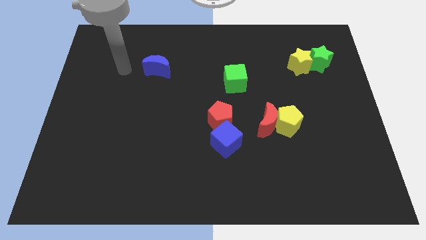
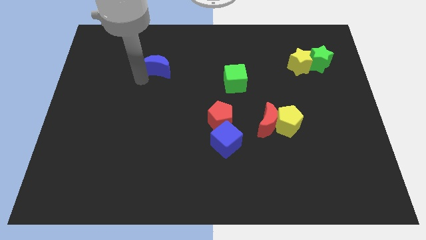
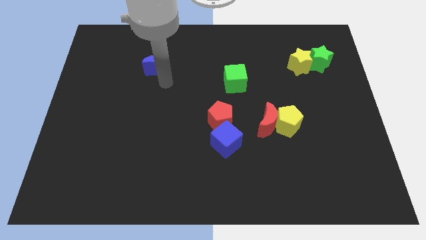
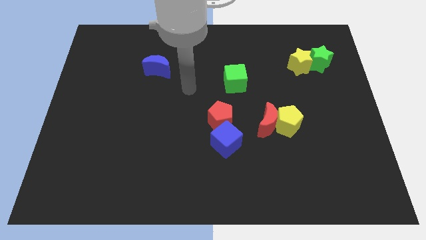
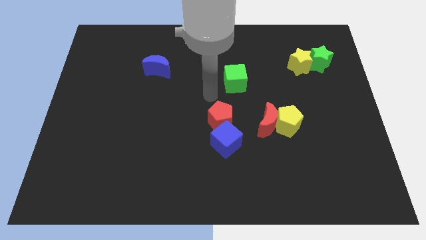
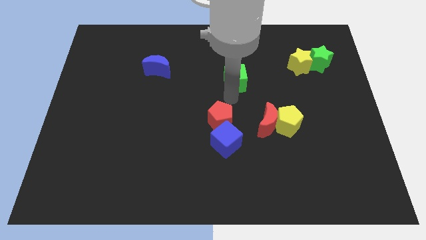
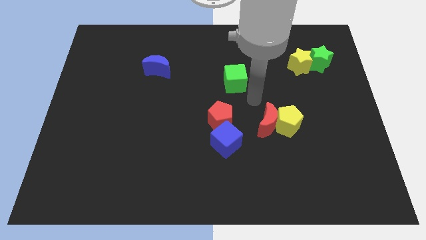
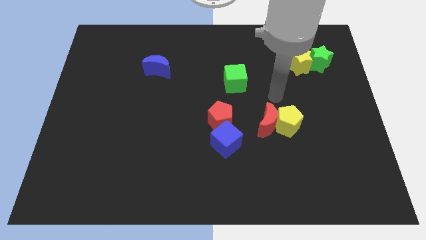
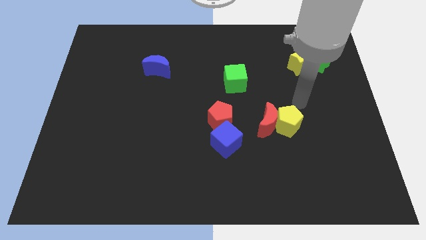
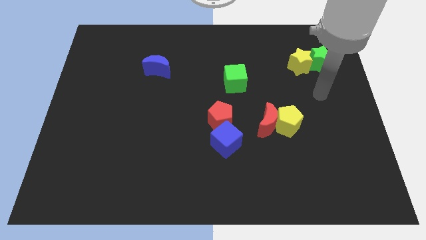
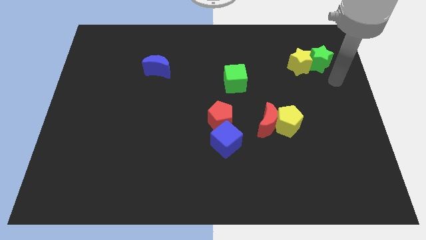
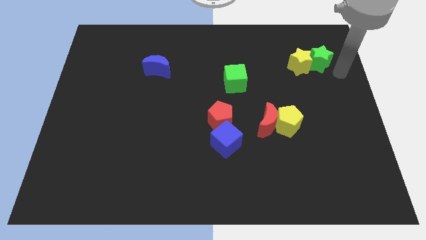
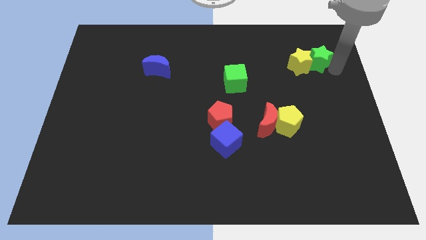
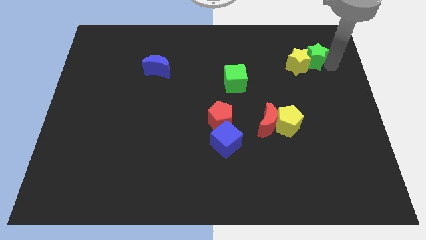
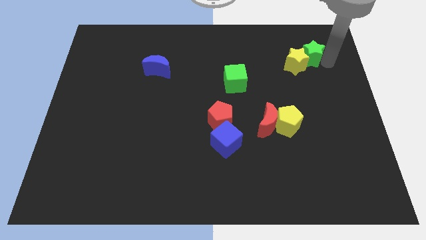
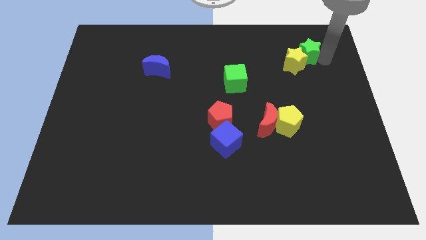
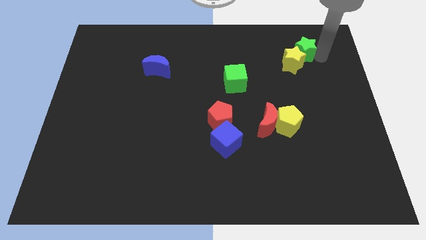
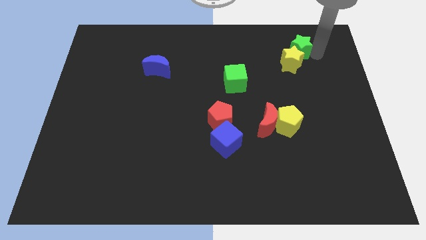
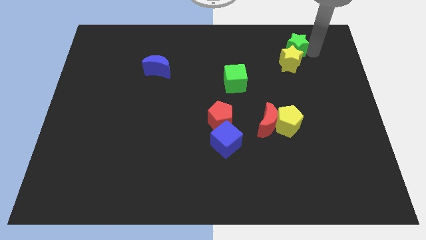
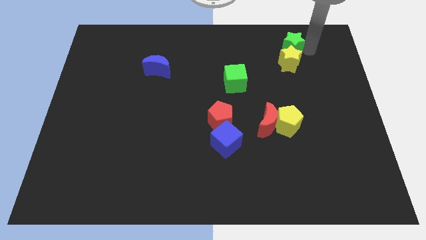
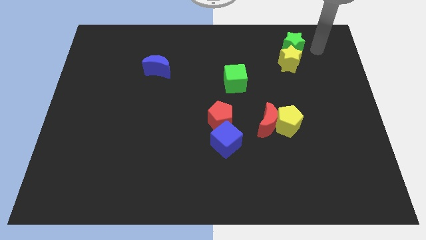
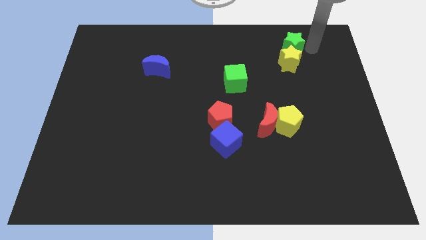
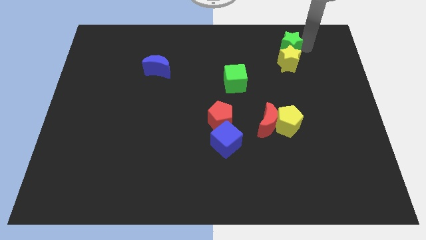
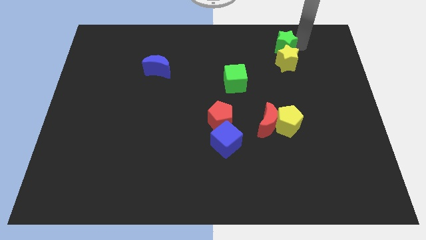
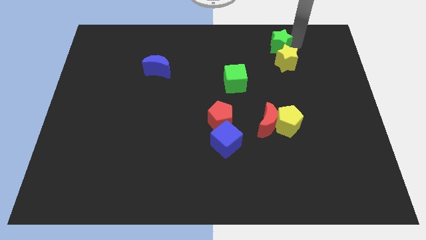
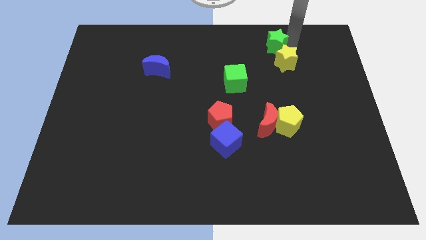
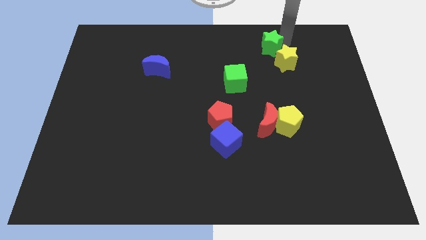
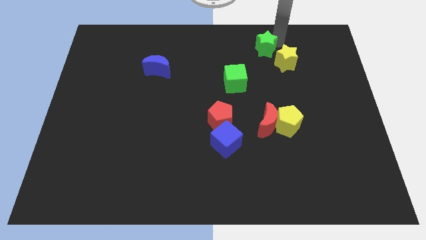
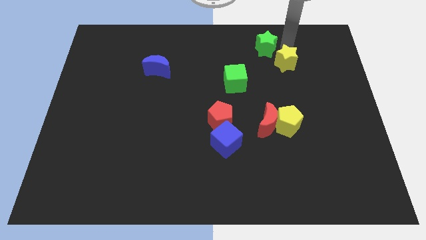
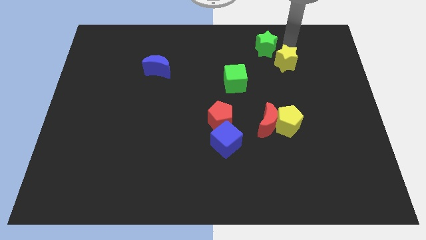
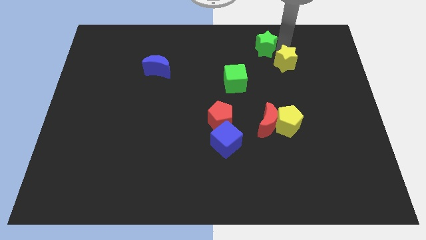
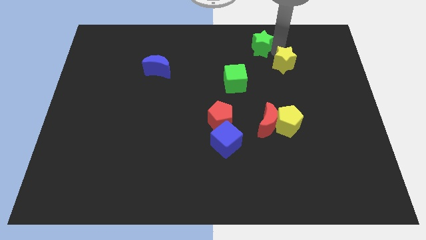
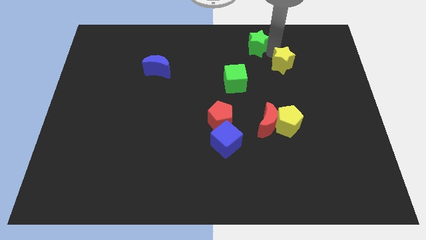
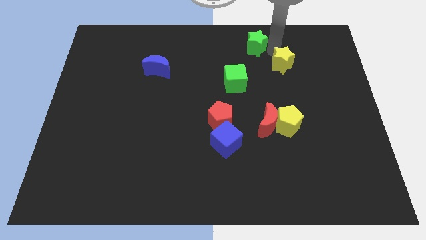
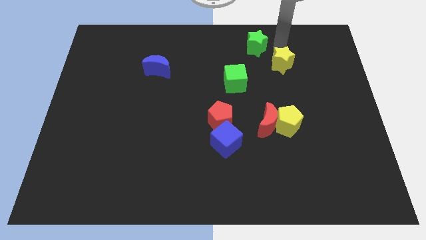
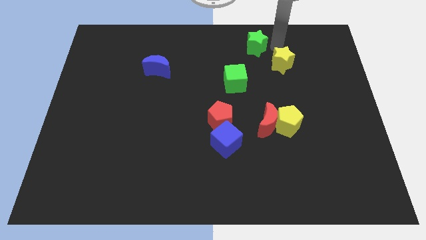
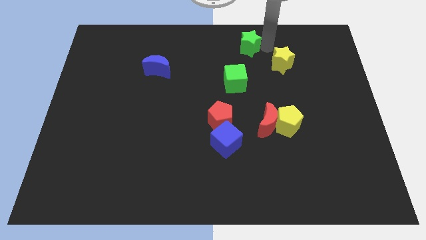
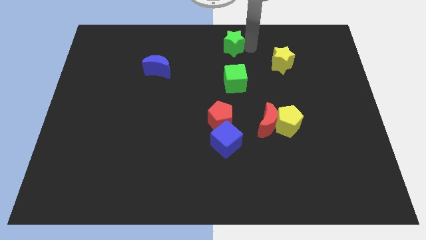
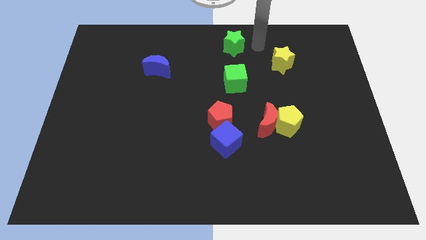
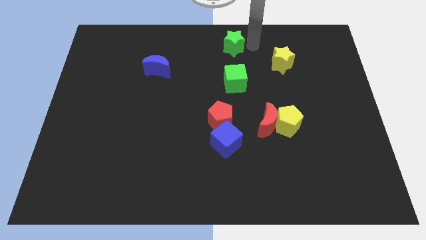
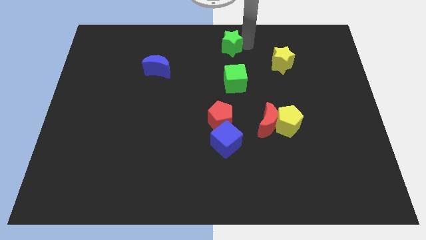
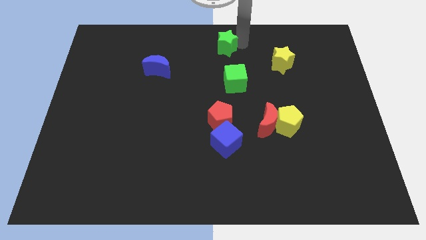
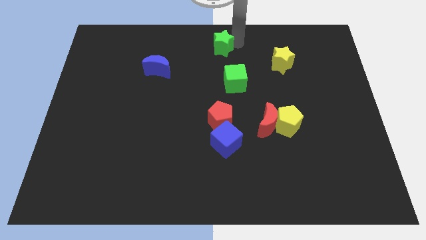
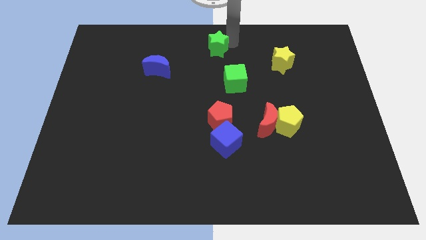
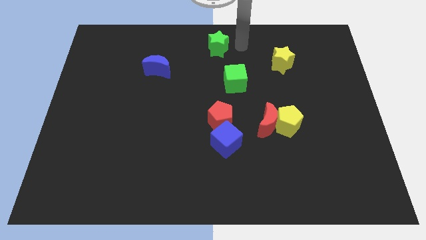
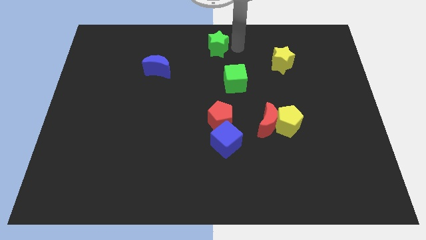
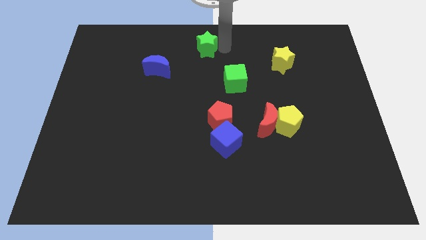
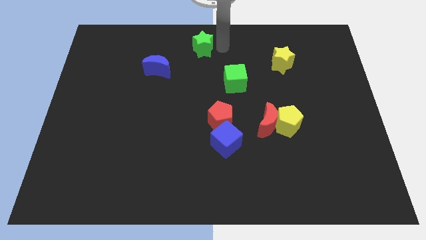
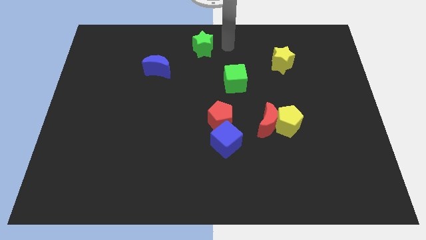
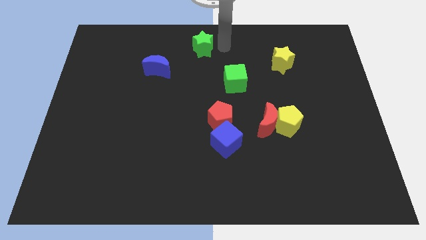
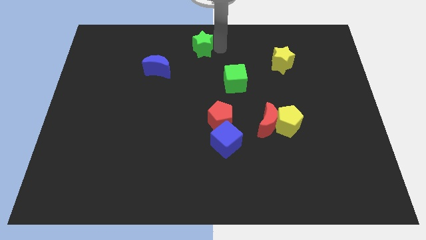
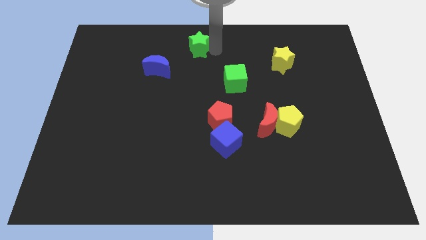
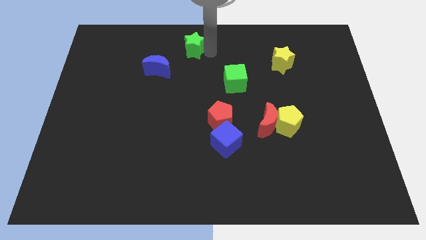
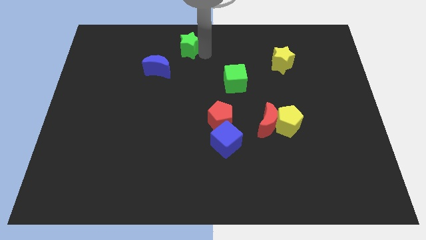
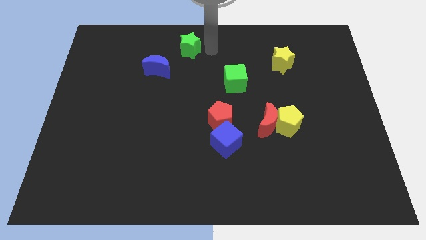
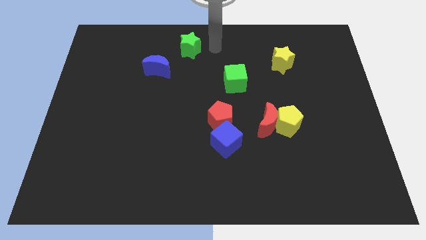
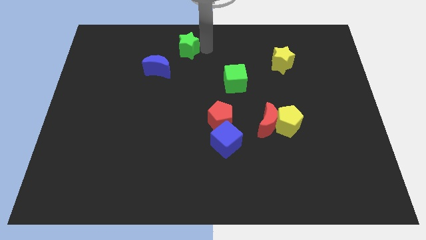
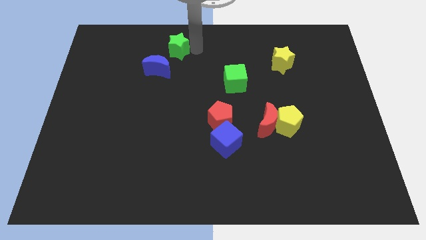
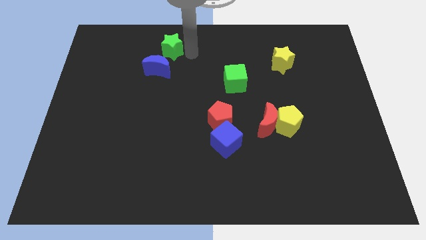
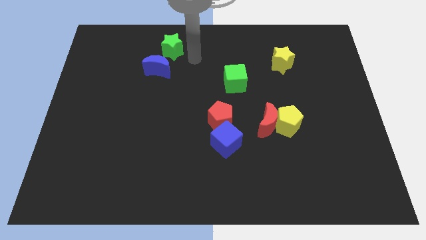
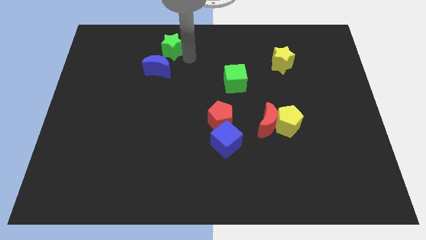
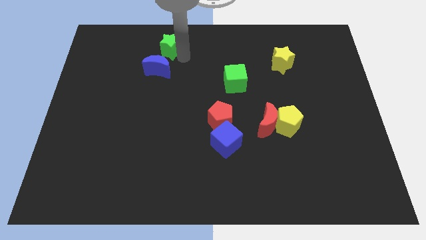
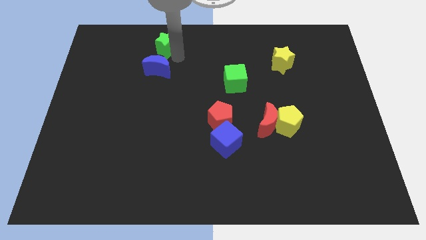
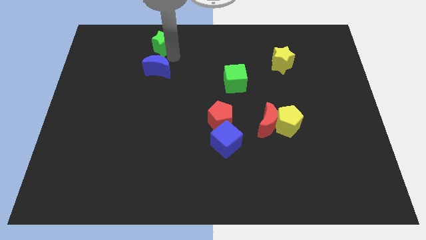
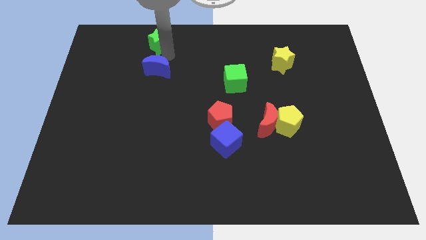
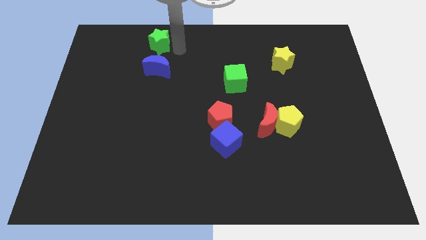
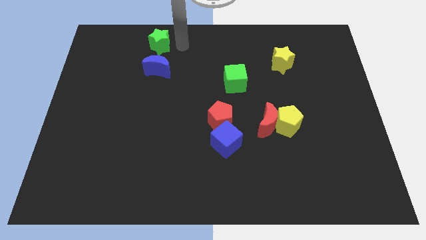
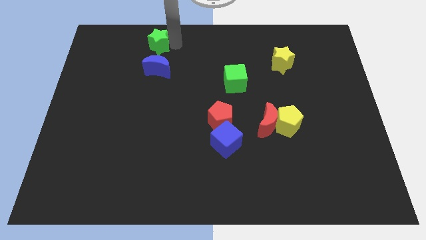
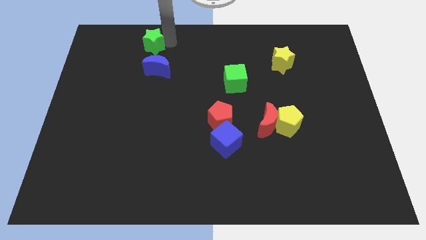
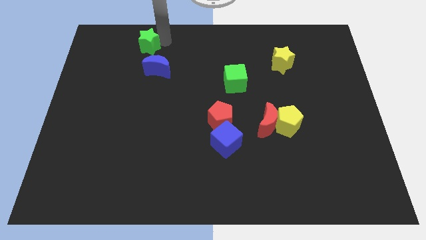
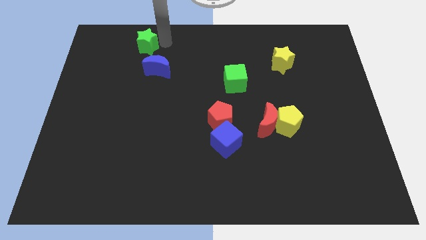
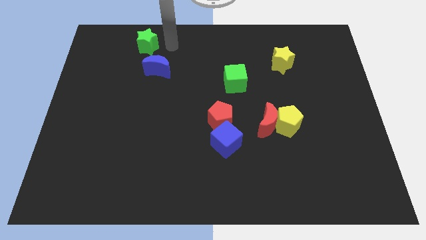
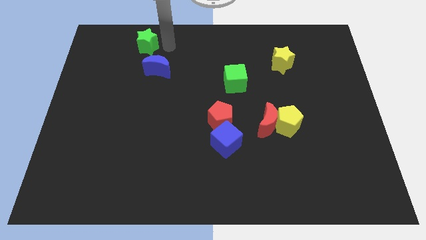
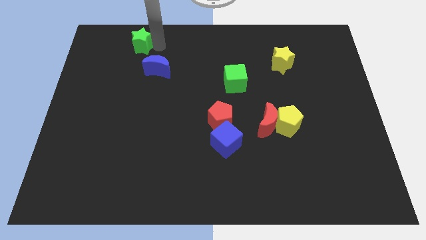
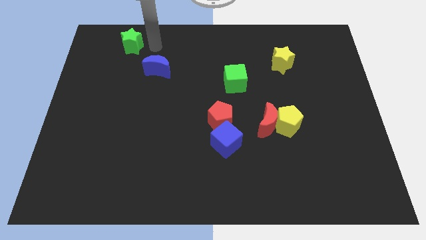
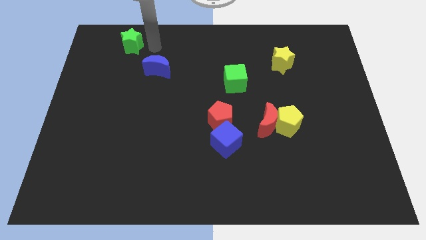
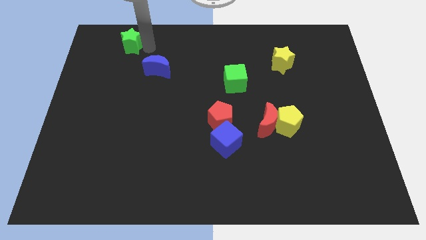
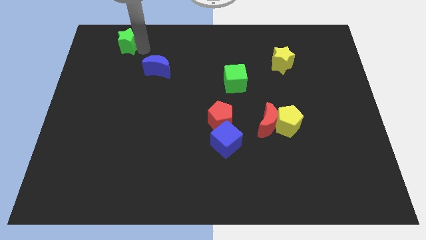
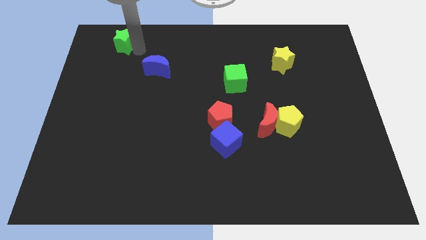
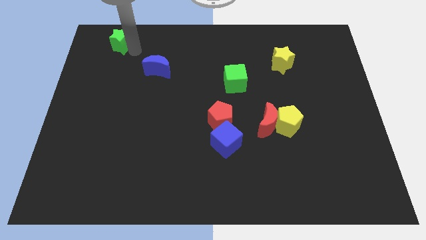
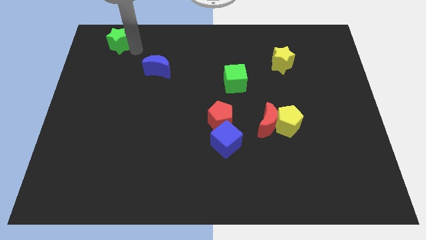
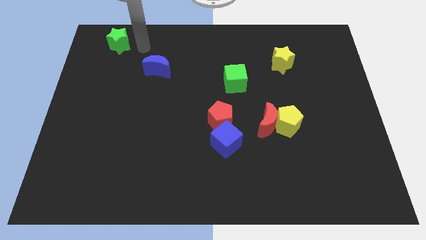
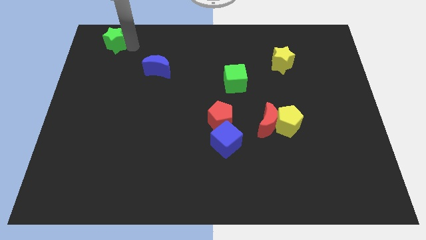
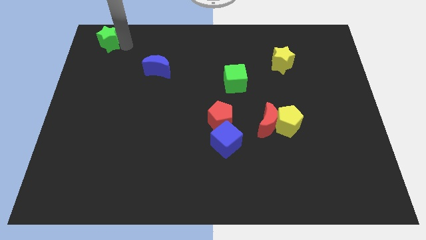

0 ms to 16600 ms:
put the green star to the top left corner
